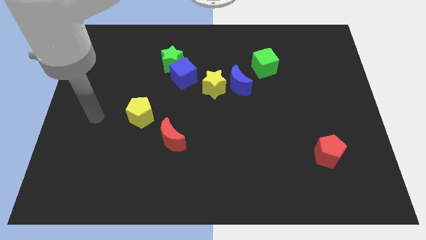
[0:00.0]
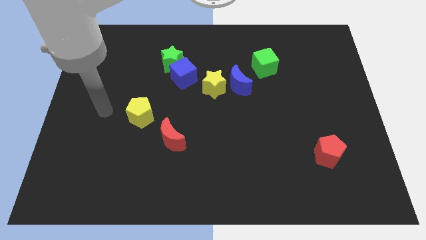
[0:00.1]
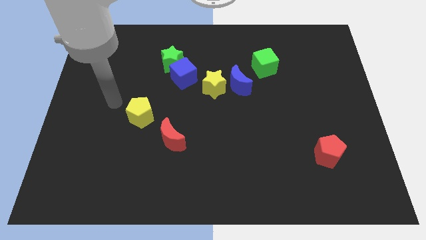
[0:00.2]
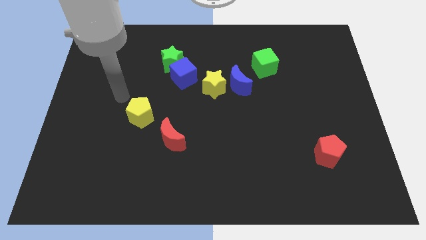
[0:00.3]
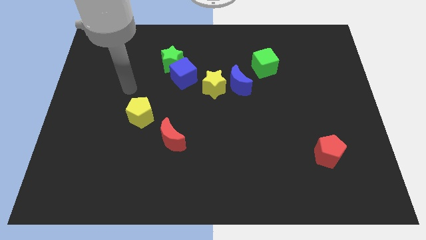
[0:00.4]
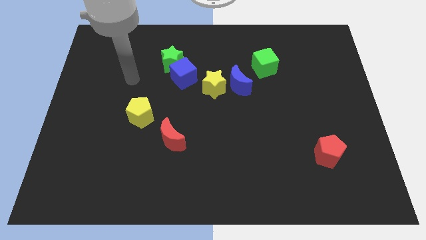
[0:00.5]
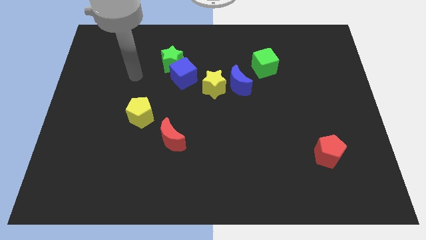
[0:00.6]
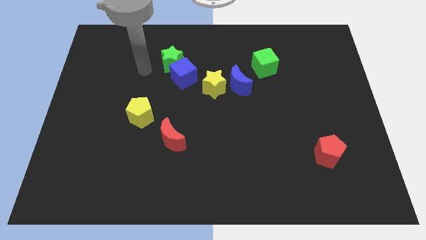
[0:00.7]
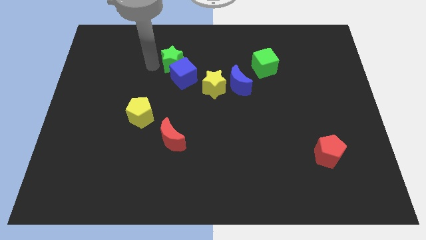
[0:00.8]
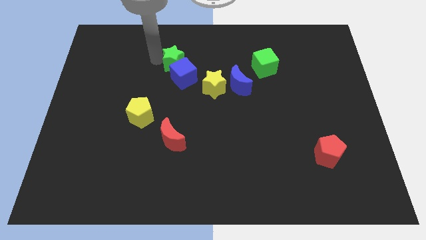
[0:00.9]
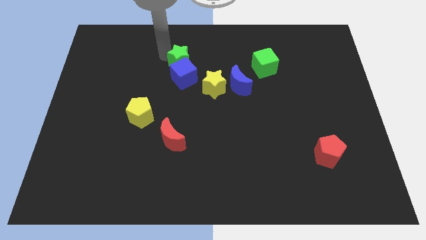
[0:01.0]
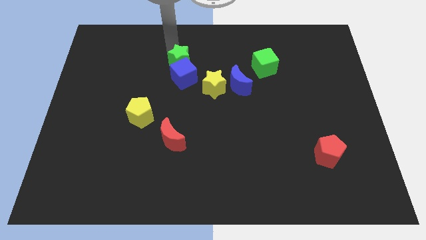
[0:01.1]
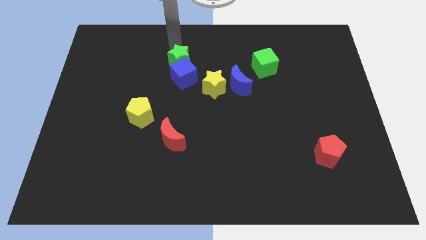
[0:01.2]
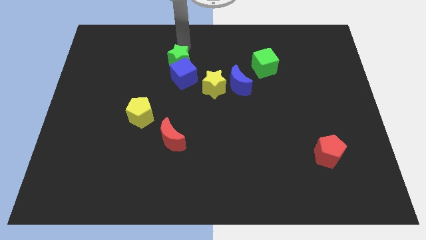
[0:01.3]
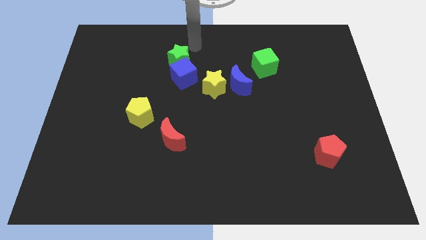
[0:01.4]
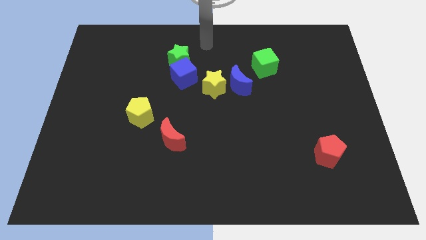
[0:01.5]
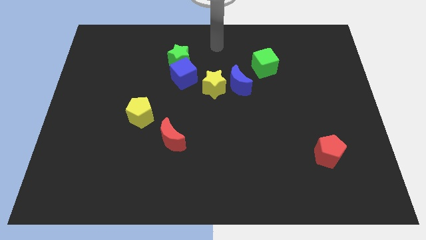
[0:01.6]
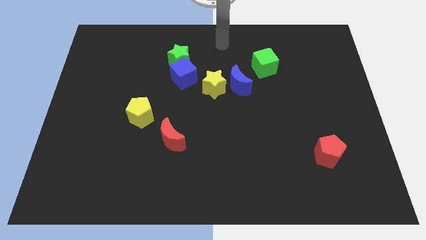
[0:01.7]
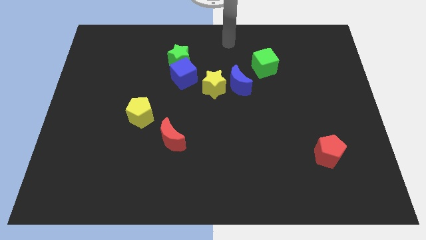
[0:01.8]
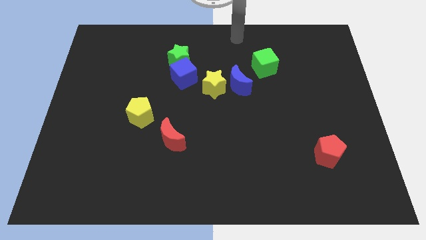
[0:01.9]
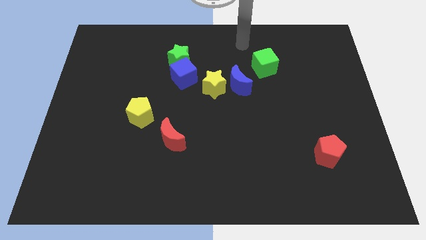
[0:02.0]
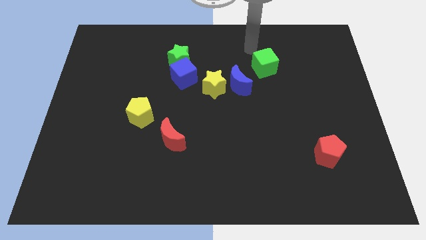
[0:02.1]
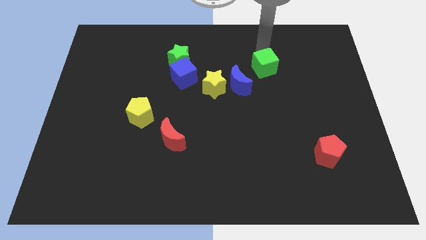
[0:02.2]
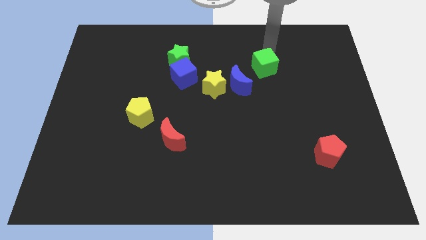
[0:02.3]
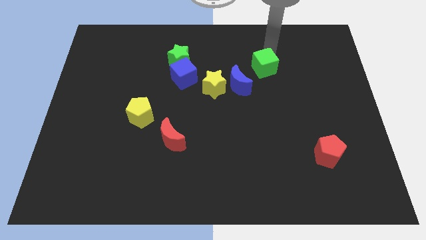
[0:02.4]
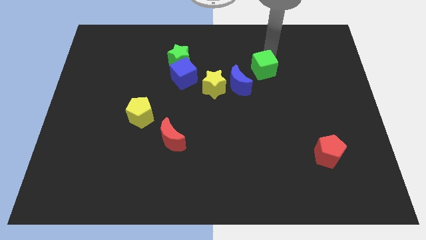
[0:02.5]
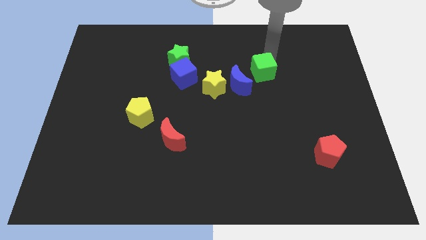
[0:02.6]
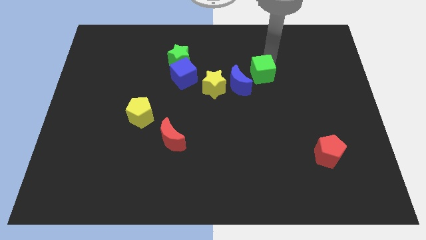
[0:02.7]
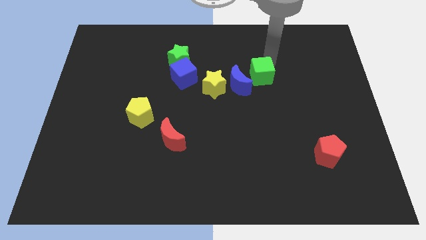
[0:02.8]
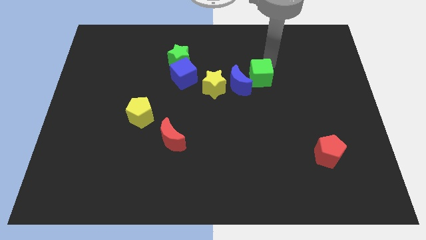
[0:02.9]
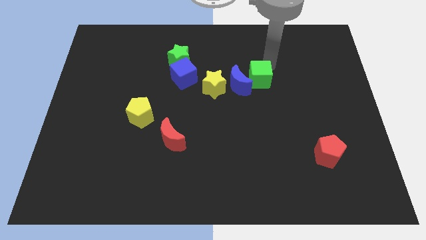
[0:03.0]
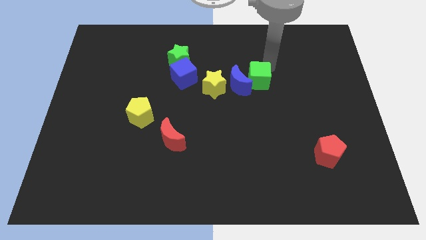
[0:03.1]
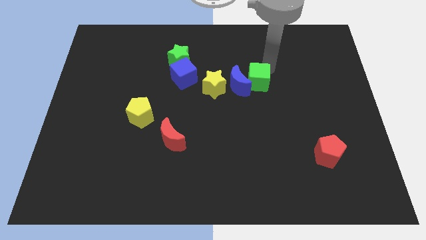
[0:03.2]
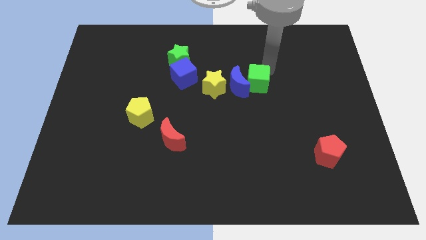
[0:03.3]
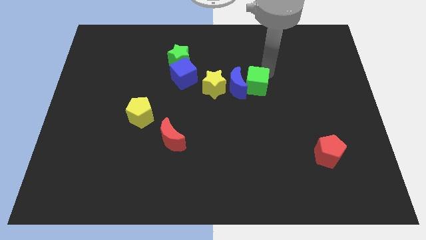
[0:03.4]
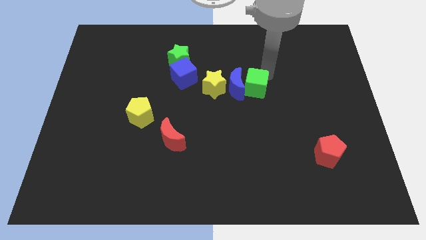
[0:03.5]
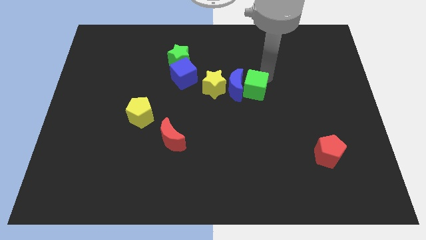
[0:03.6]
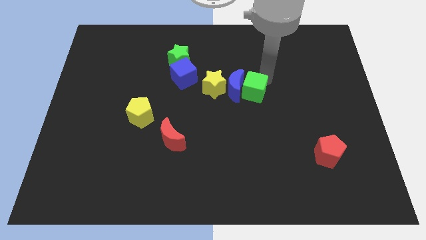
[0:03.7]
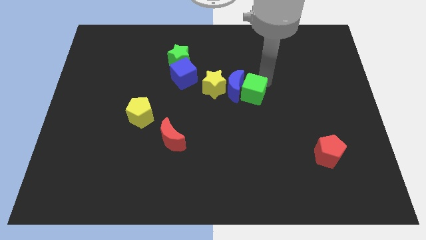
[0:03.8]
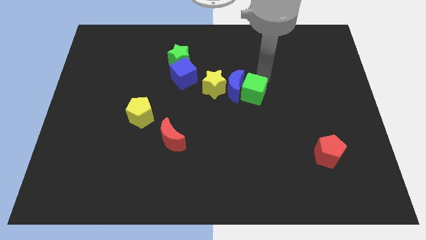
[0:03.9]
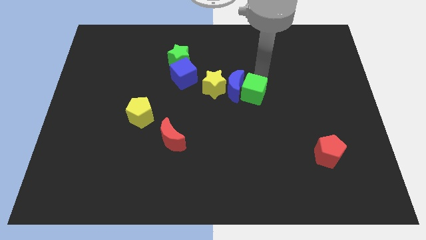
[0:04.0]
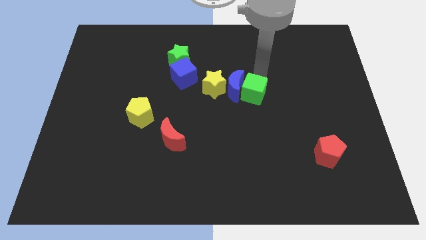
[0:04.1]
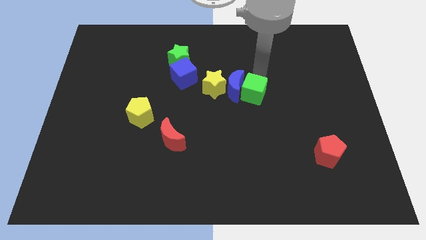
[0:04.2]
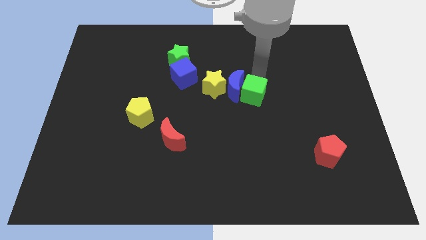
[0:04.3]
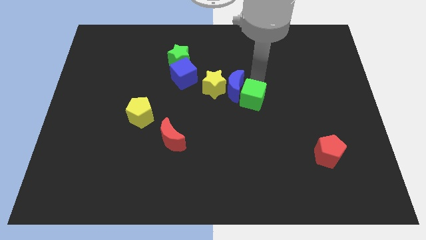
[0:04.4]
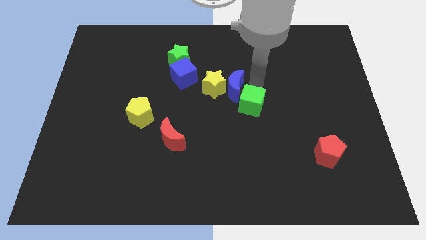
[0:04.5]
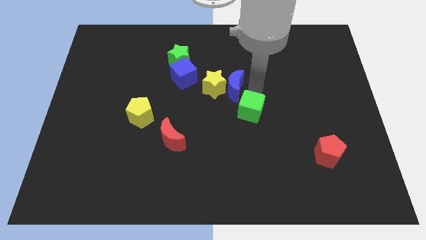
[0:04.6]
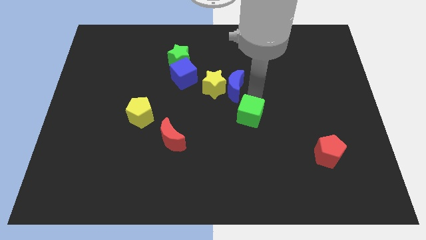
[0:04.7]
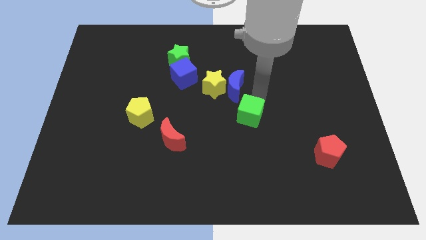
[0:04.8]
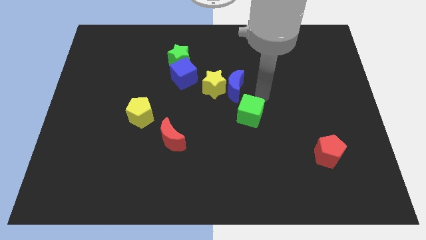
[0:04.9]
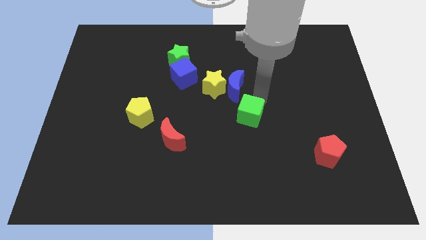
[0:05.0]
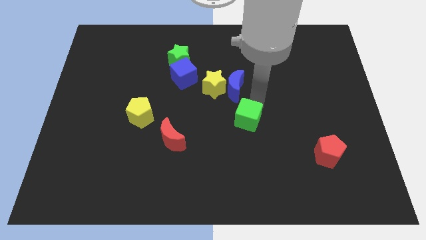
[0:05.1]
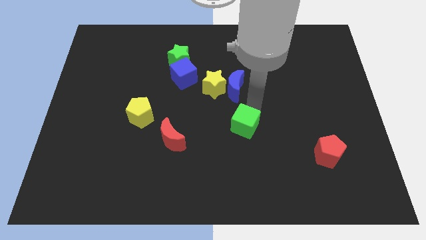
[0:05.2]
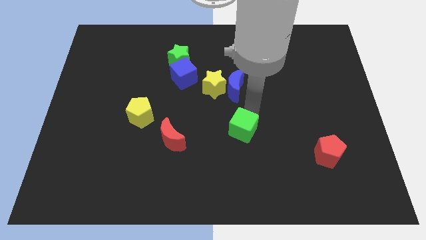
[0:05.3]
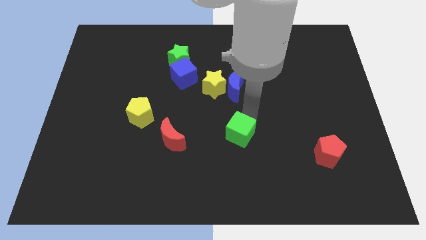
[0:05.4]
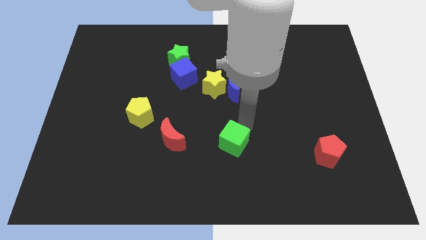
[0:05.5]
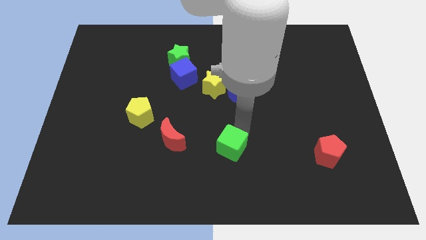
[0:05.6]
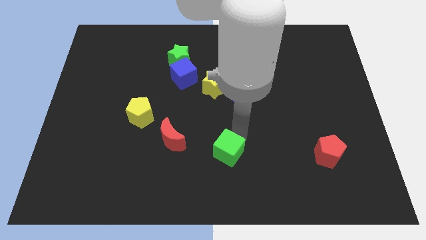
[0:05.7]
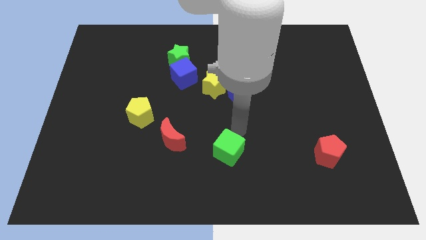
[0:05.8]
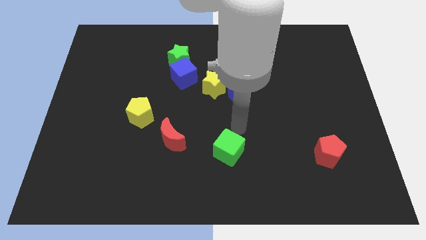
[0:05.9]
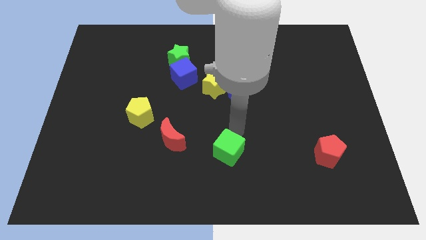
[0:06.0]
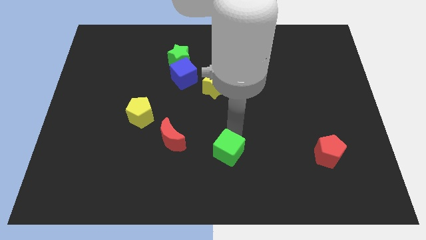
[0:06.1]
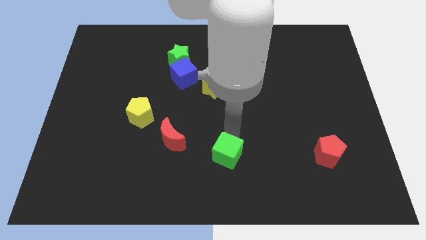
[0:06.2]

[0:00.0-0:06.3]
move the green cube to the bottom

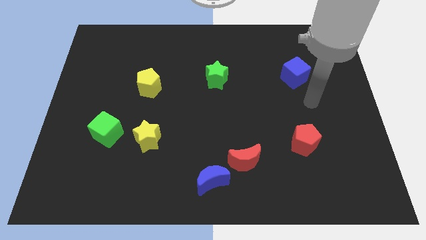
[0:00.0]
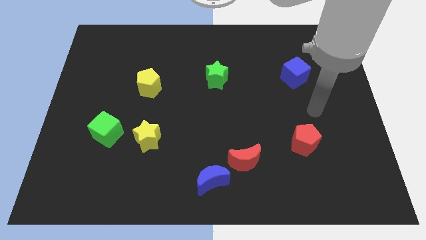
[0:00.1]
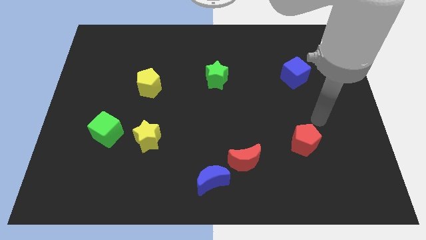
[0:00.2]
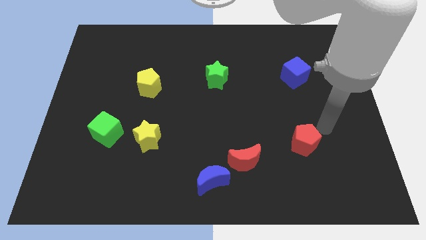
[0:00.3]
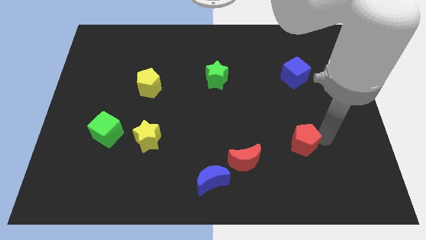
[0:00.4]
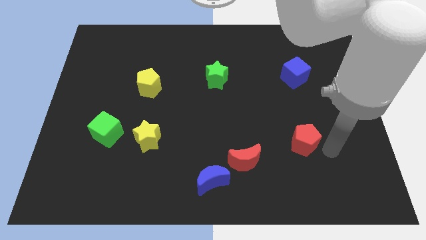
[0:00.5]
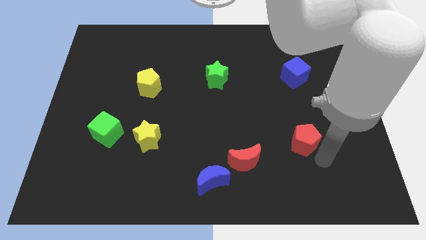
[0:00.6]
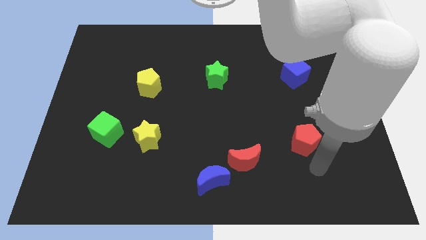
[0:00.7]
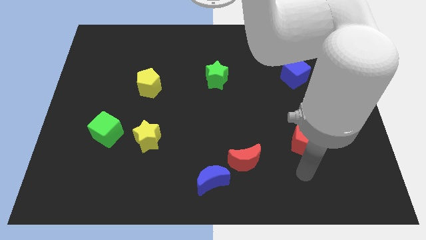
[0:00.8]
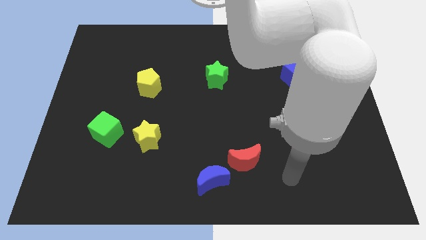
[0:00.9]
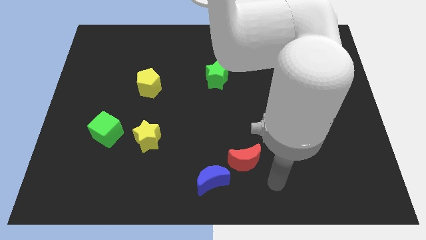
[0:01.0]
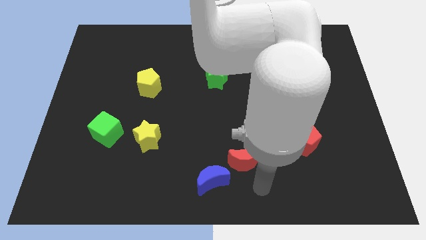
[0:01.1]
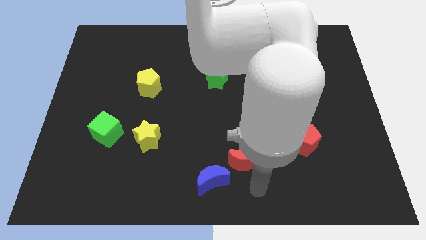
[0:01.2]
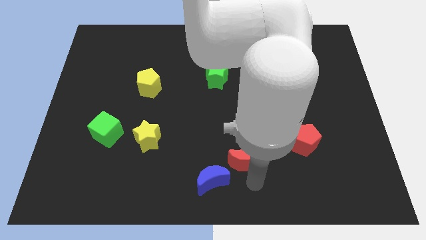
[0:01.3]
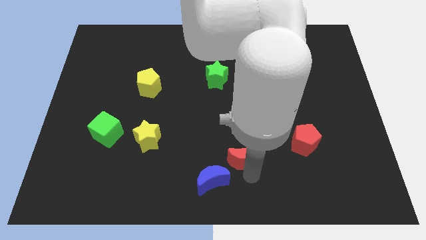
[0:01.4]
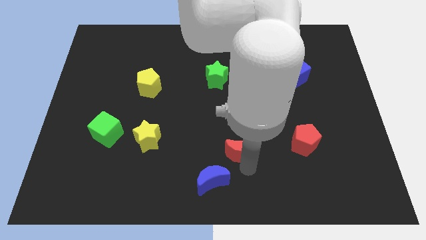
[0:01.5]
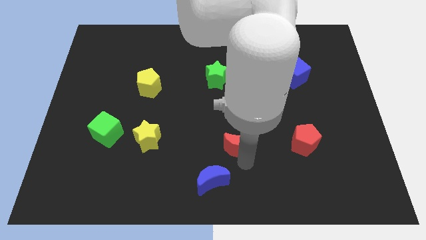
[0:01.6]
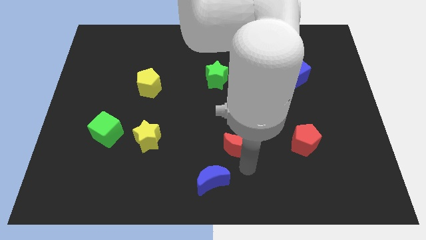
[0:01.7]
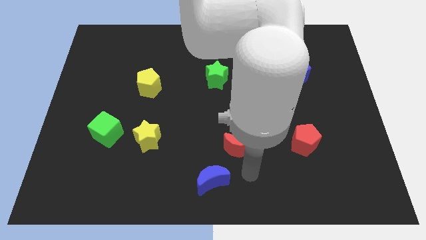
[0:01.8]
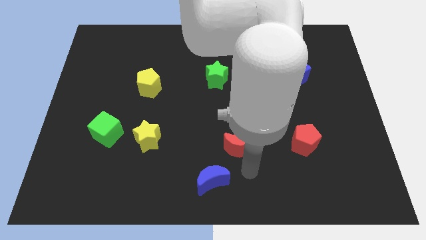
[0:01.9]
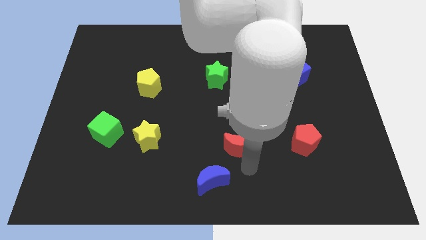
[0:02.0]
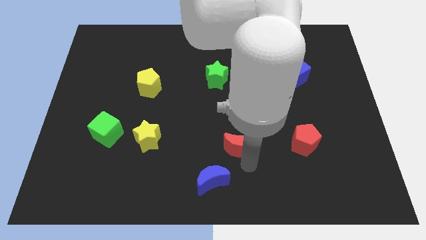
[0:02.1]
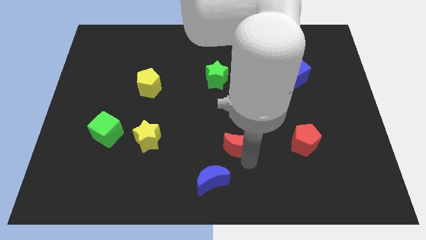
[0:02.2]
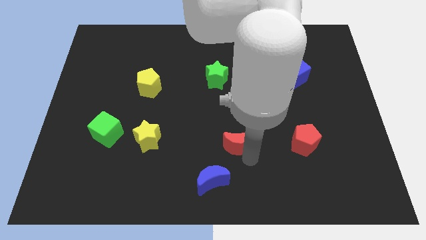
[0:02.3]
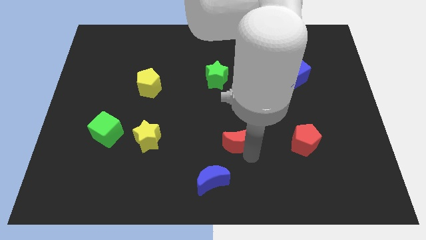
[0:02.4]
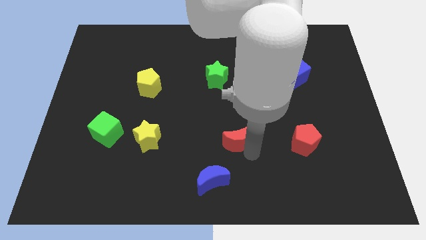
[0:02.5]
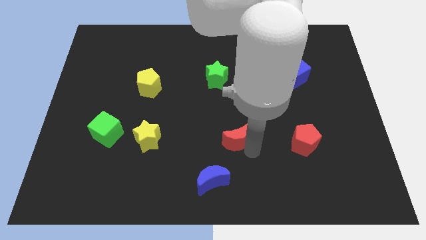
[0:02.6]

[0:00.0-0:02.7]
push the red moon to the center
